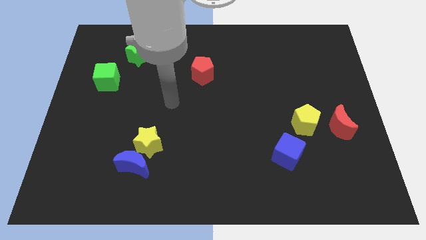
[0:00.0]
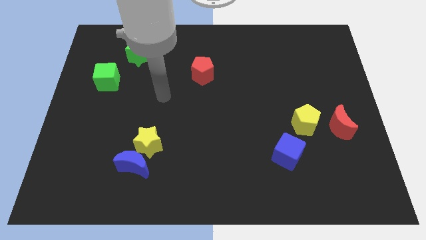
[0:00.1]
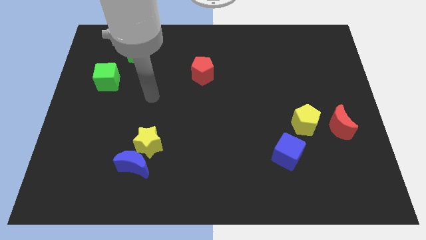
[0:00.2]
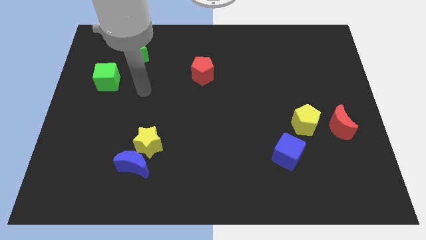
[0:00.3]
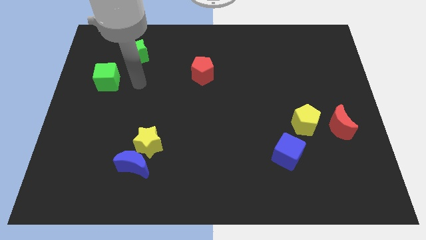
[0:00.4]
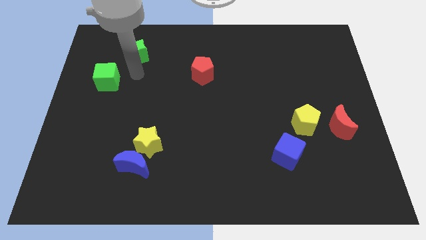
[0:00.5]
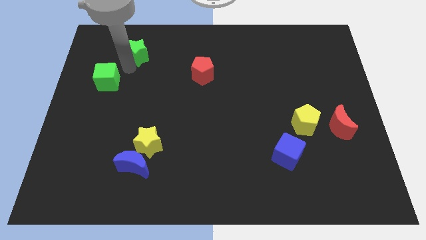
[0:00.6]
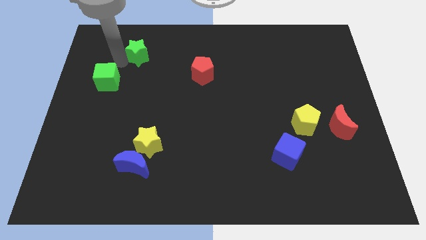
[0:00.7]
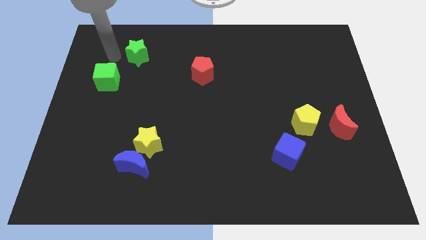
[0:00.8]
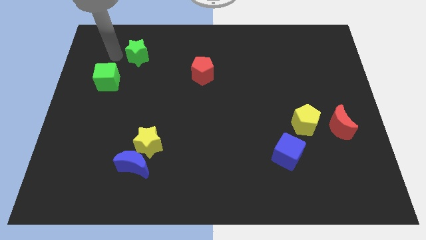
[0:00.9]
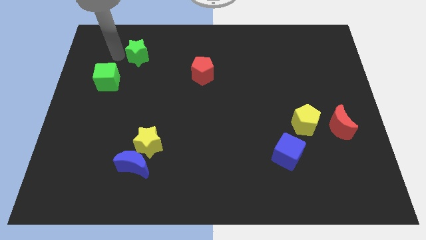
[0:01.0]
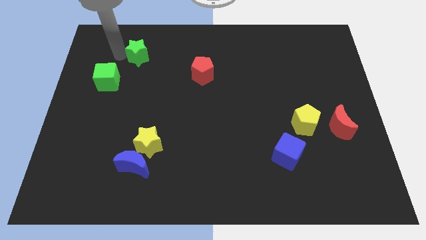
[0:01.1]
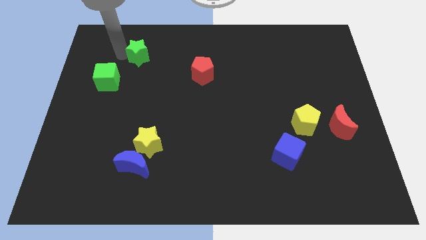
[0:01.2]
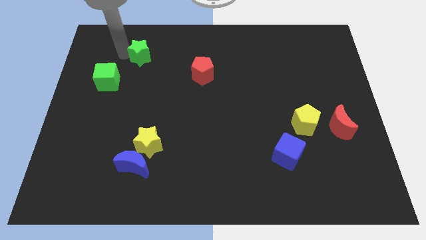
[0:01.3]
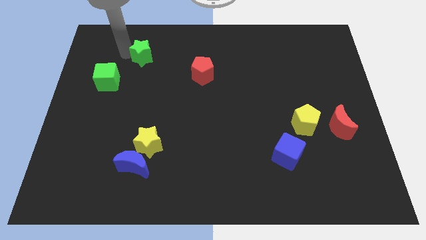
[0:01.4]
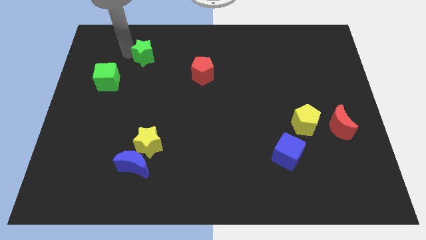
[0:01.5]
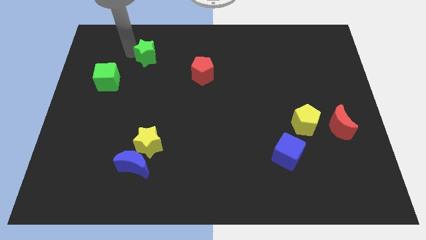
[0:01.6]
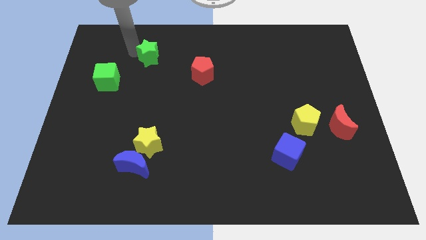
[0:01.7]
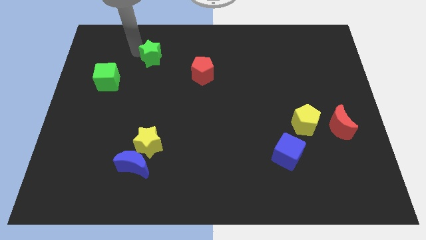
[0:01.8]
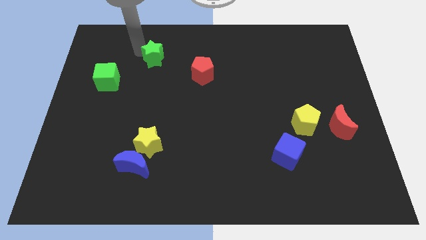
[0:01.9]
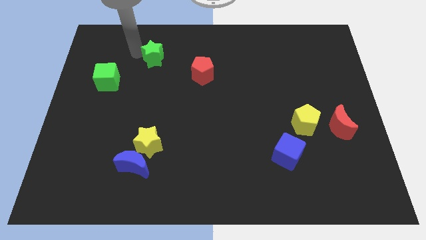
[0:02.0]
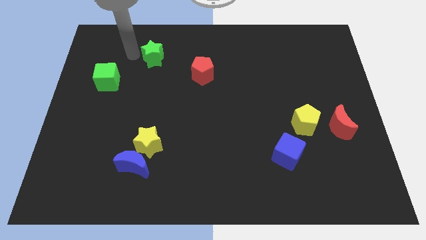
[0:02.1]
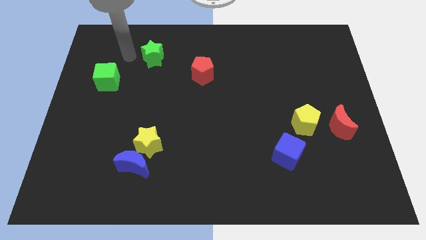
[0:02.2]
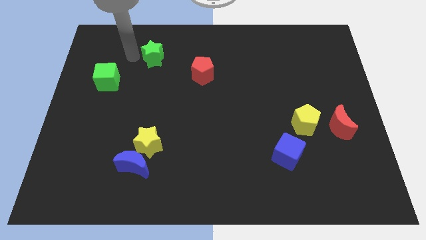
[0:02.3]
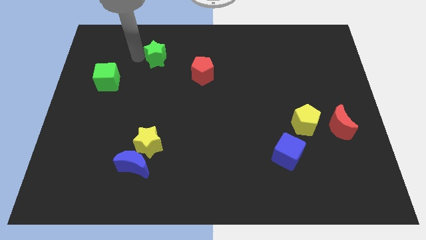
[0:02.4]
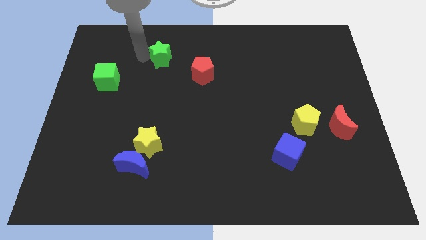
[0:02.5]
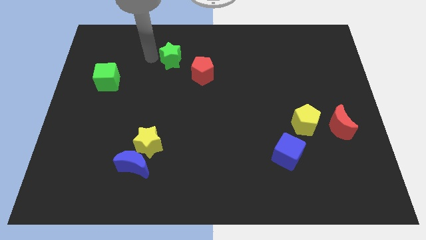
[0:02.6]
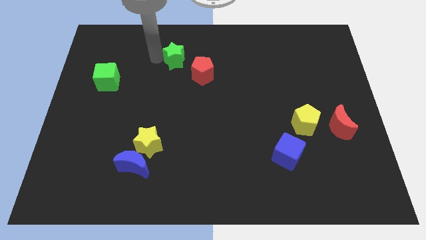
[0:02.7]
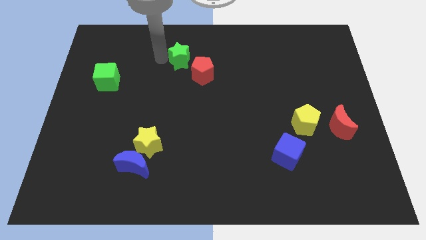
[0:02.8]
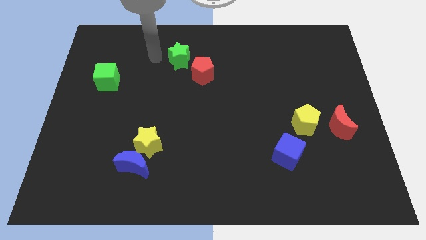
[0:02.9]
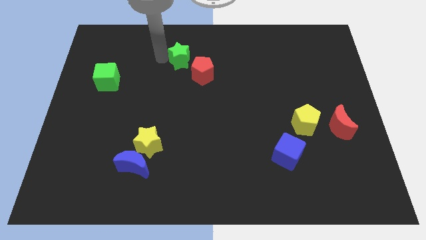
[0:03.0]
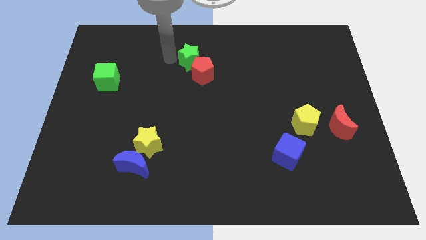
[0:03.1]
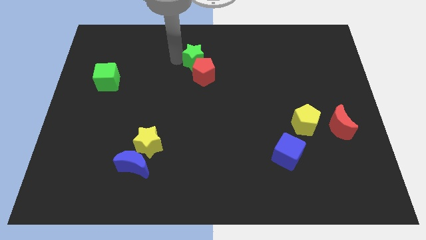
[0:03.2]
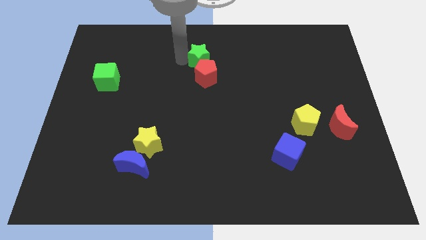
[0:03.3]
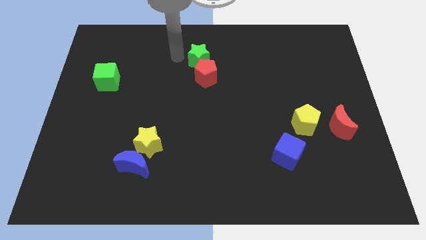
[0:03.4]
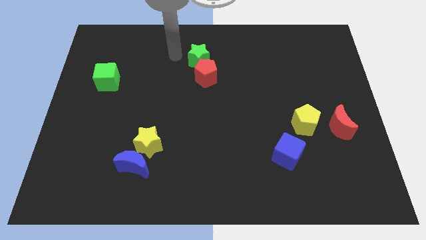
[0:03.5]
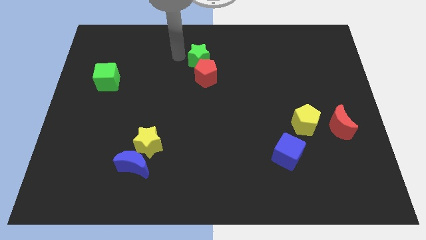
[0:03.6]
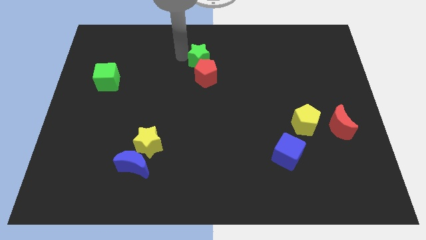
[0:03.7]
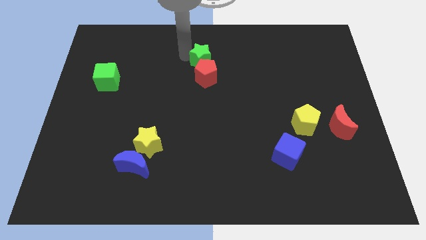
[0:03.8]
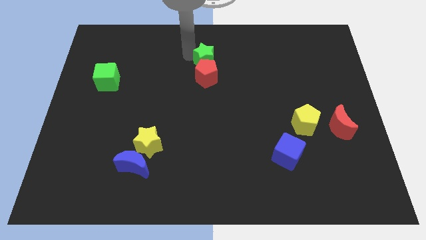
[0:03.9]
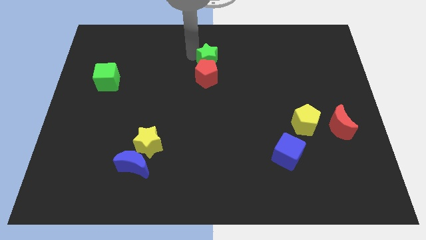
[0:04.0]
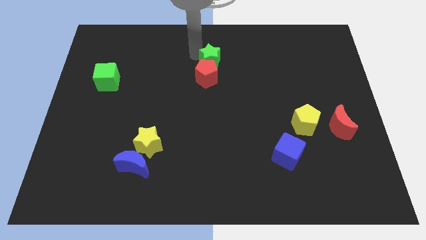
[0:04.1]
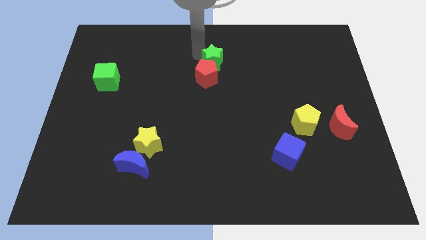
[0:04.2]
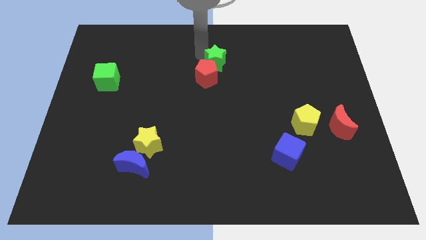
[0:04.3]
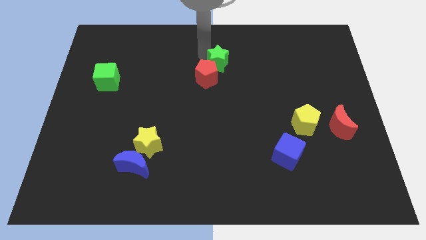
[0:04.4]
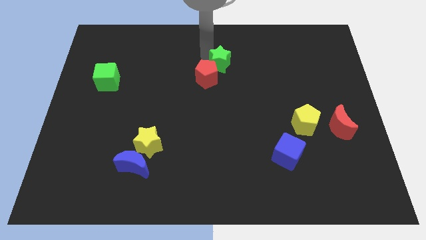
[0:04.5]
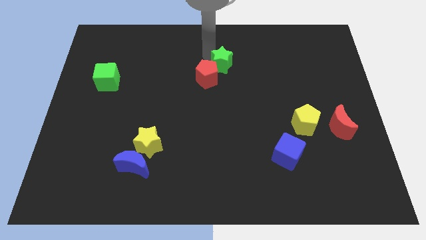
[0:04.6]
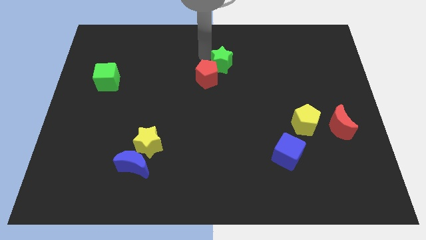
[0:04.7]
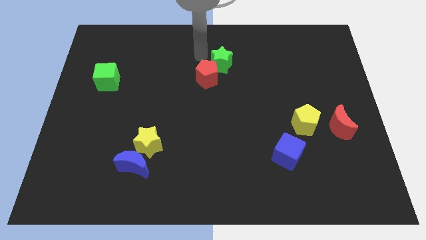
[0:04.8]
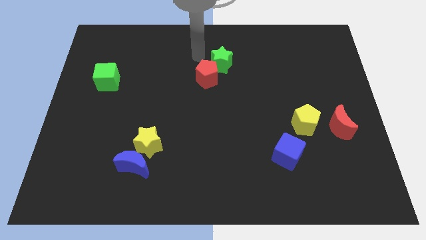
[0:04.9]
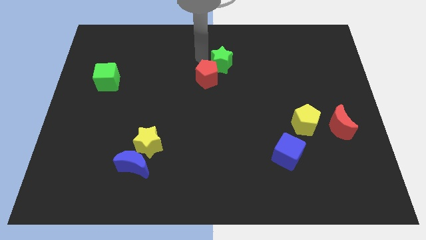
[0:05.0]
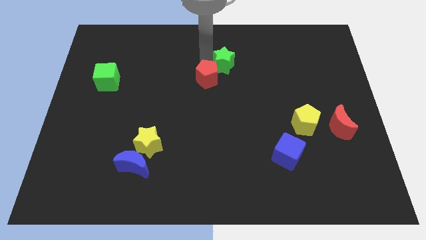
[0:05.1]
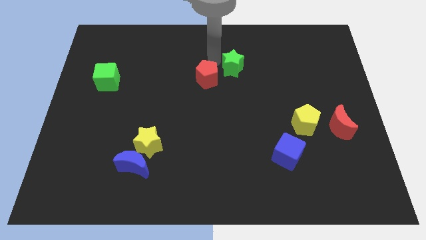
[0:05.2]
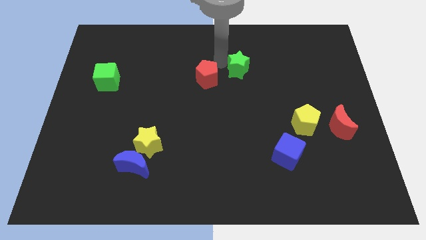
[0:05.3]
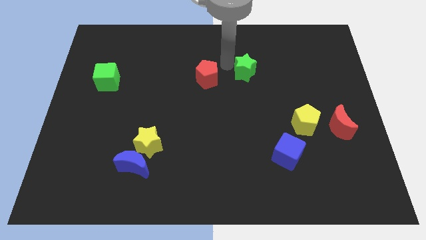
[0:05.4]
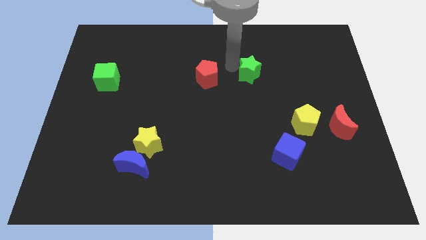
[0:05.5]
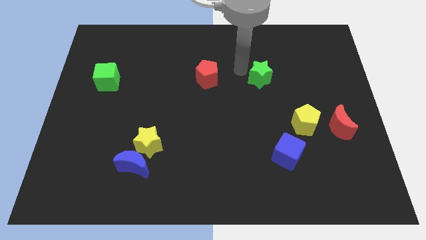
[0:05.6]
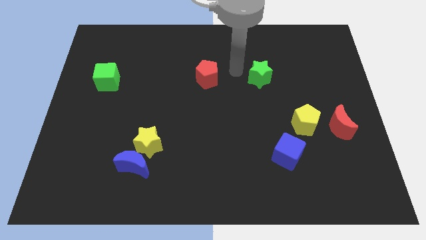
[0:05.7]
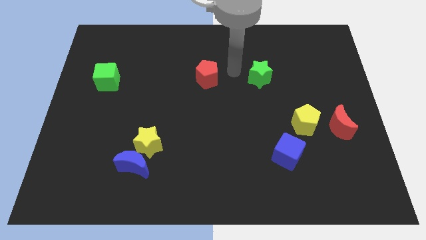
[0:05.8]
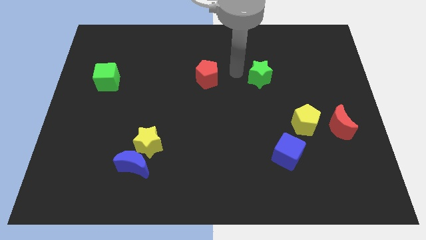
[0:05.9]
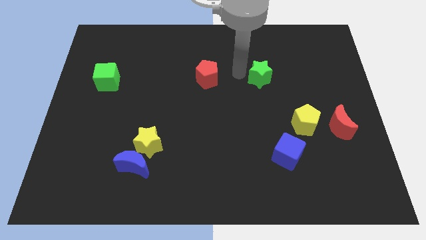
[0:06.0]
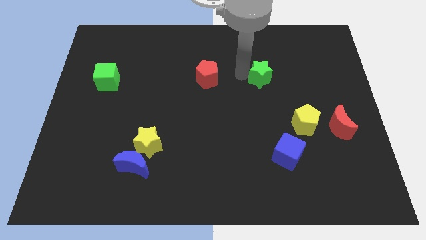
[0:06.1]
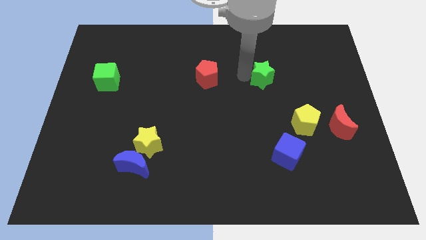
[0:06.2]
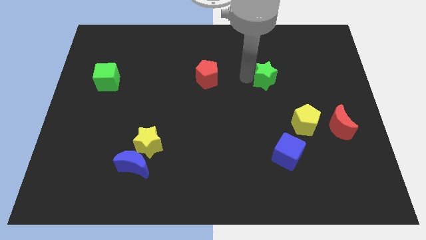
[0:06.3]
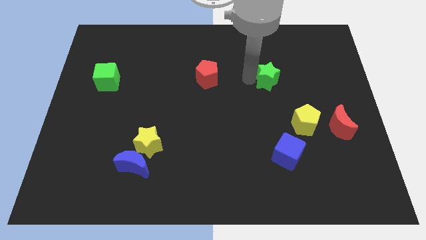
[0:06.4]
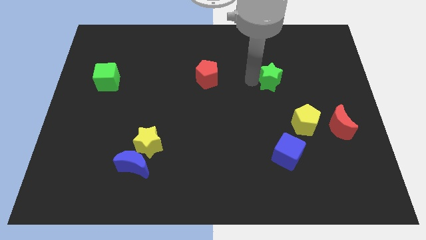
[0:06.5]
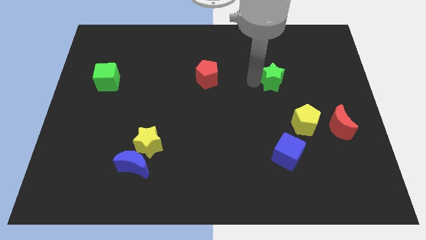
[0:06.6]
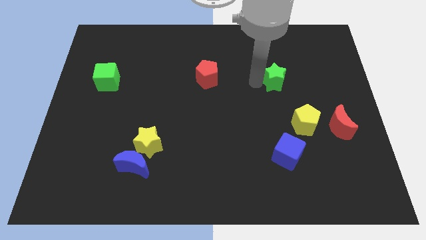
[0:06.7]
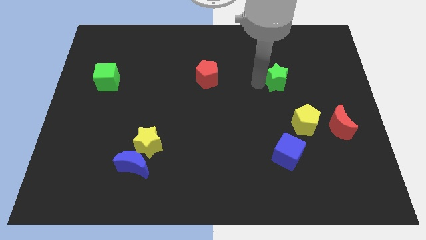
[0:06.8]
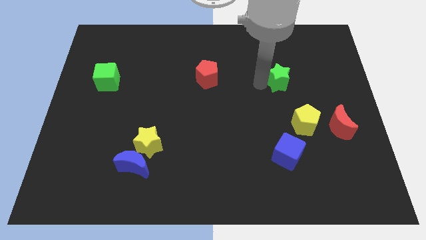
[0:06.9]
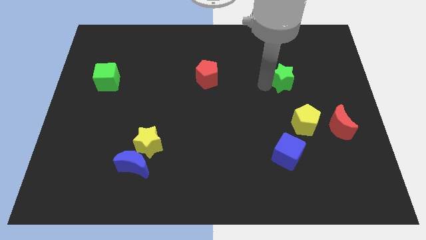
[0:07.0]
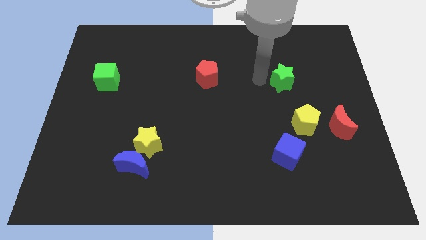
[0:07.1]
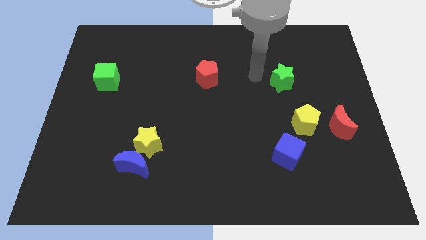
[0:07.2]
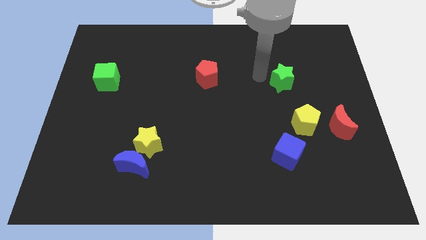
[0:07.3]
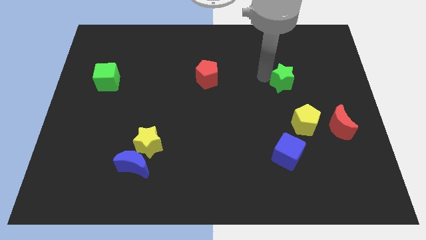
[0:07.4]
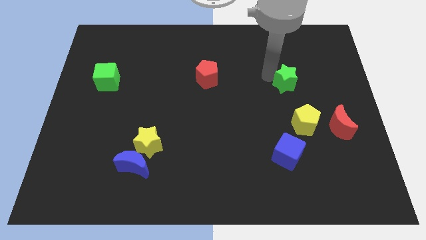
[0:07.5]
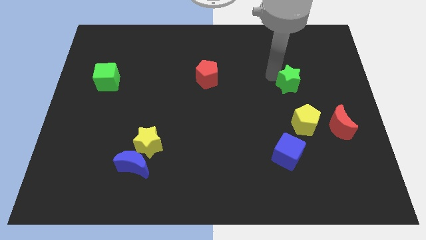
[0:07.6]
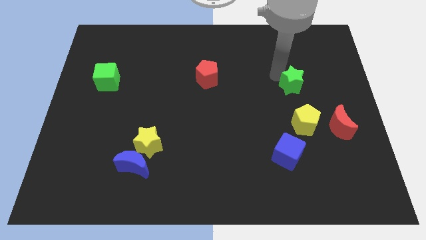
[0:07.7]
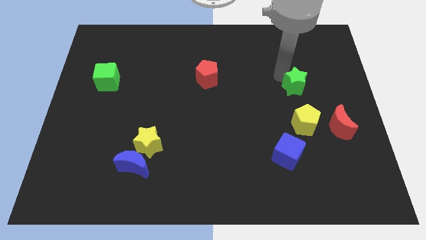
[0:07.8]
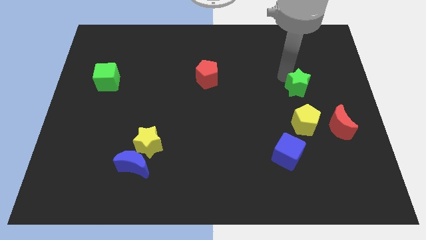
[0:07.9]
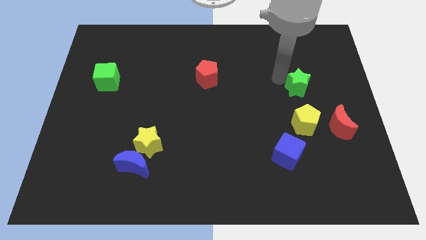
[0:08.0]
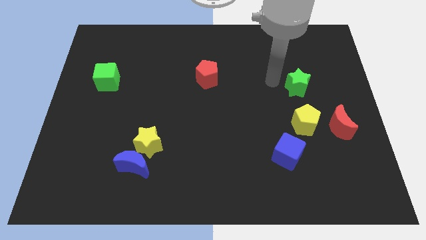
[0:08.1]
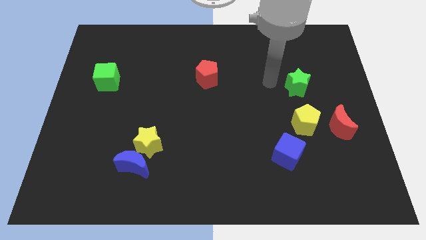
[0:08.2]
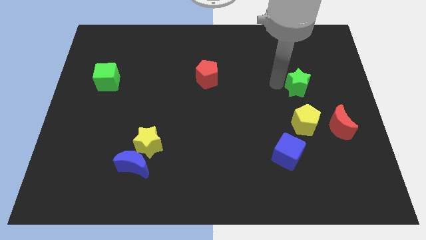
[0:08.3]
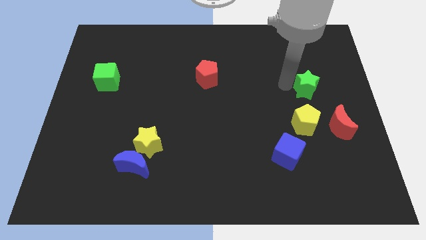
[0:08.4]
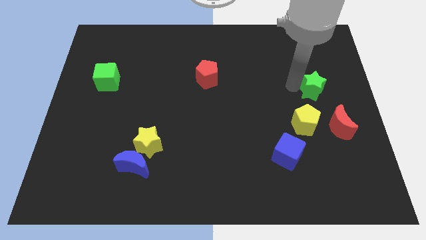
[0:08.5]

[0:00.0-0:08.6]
put the green star to the top side of the red moon
